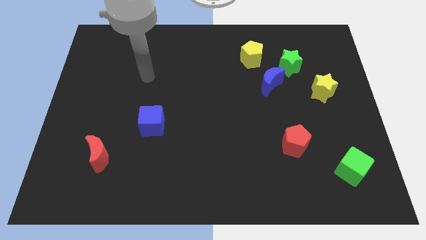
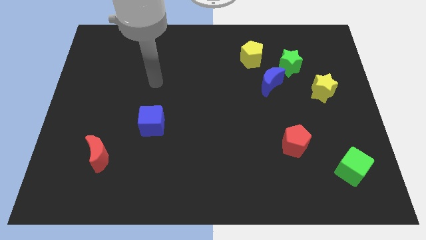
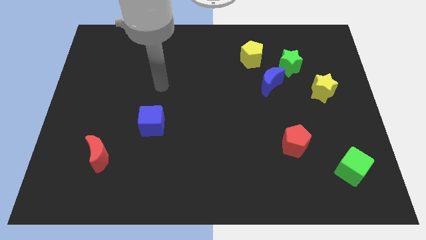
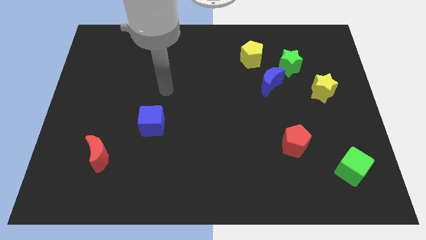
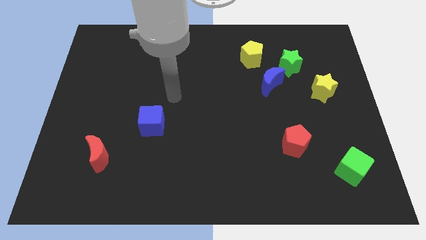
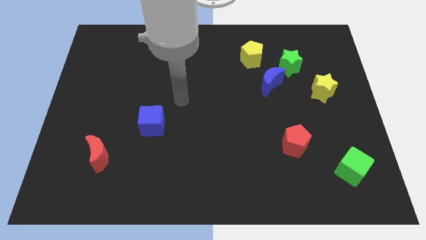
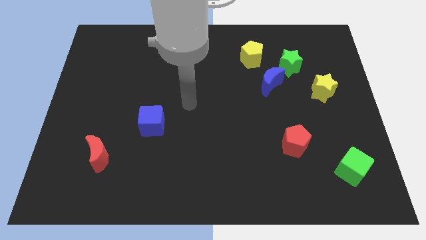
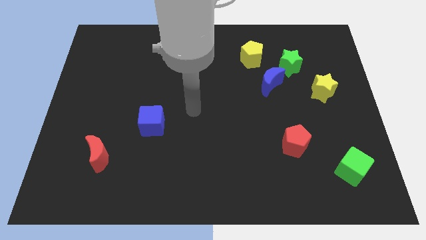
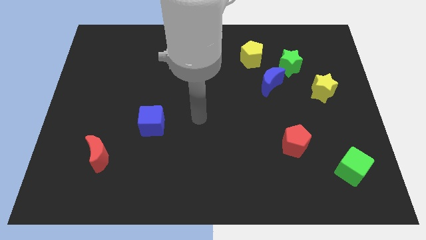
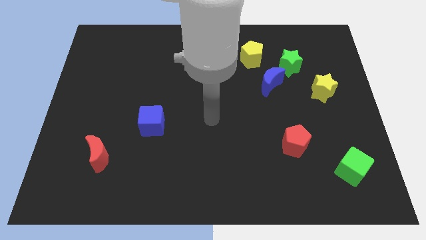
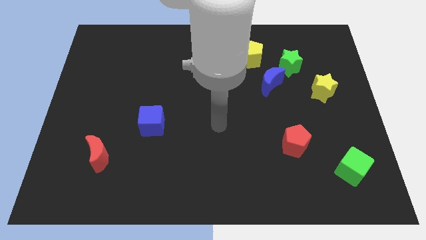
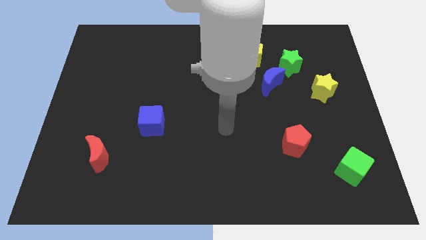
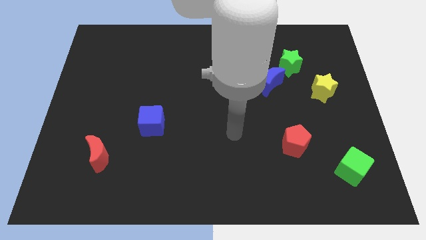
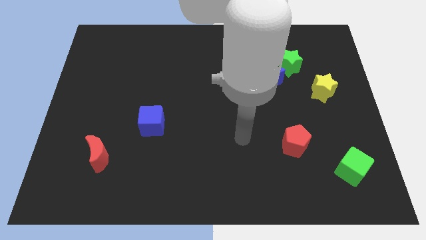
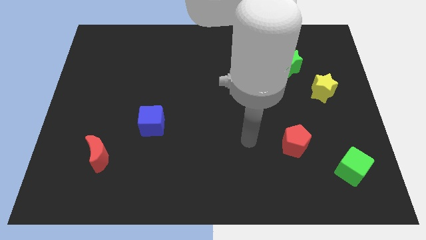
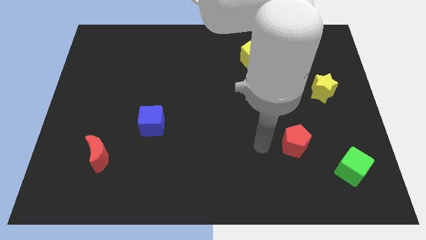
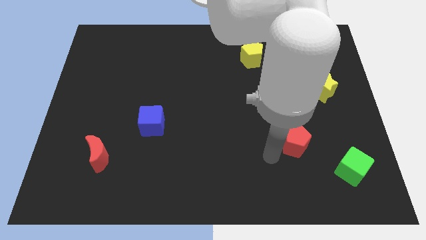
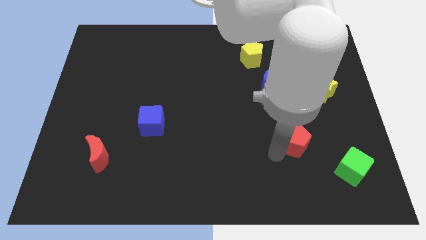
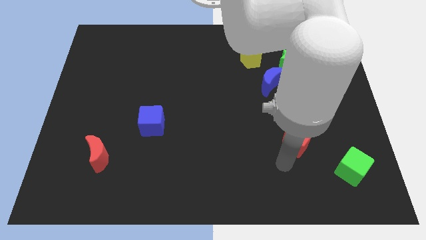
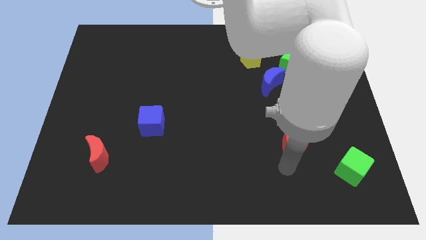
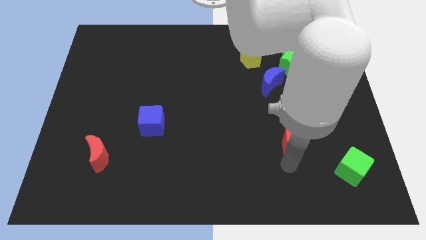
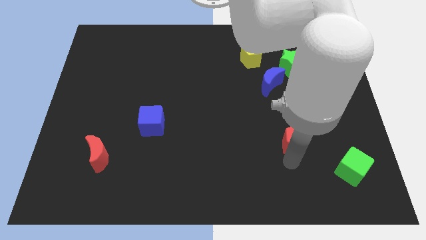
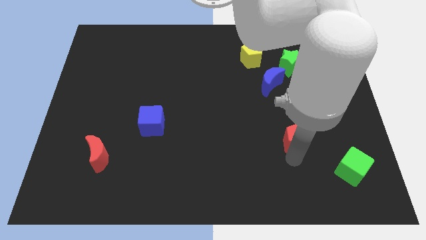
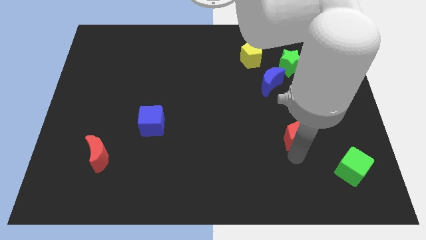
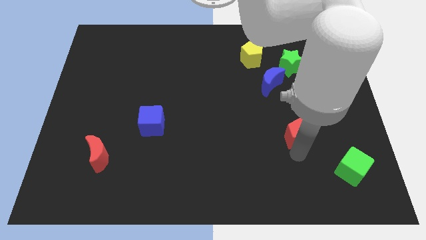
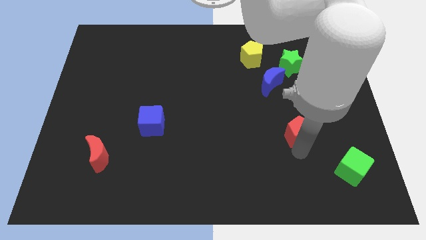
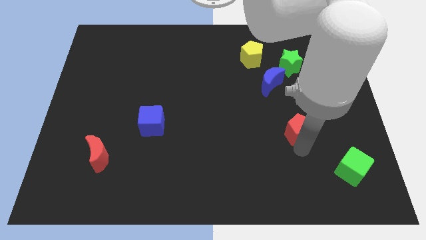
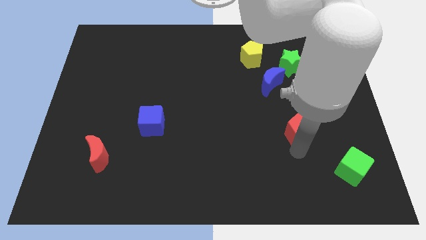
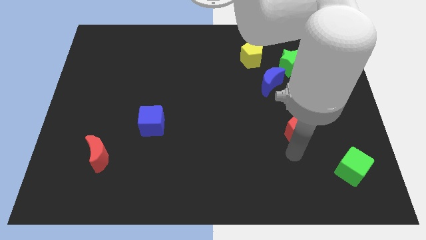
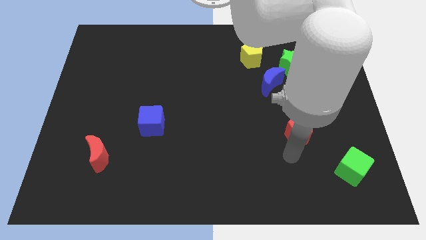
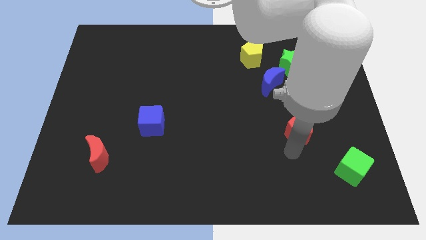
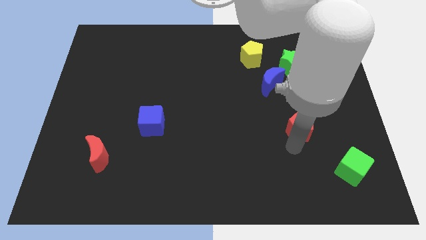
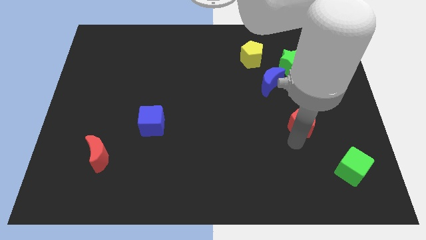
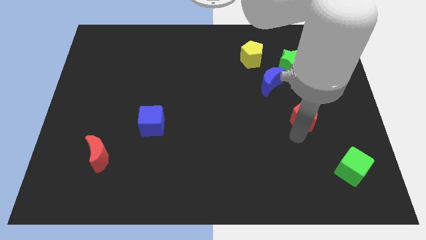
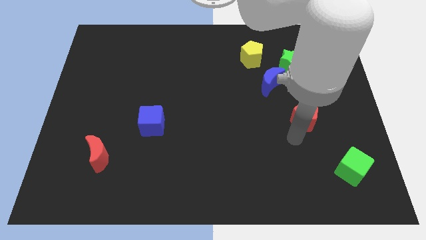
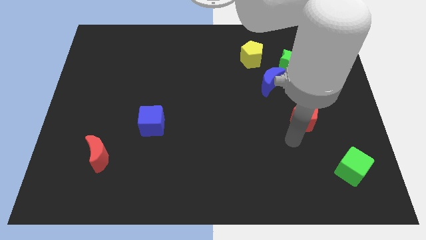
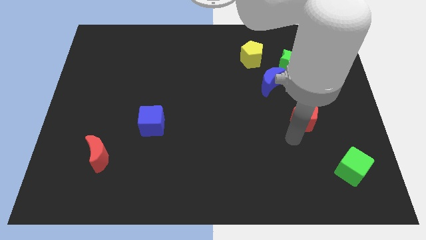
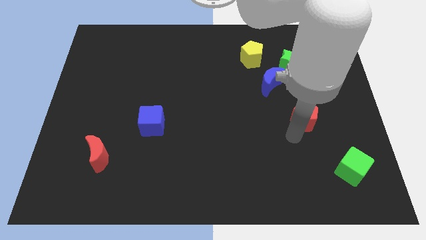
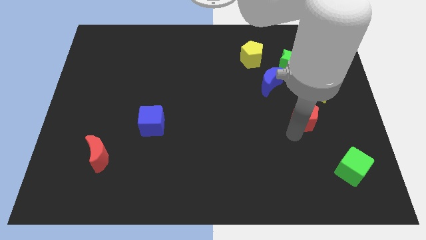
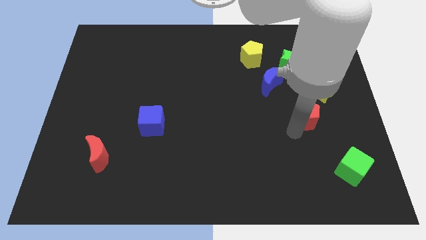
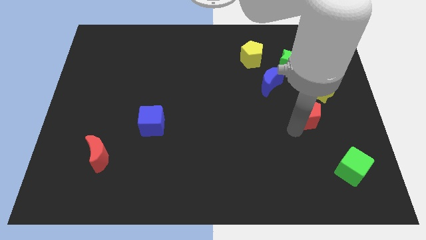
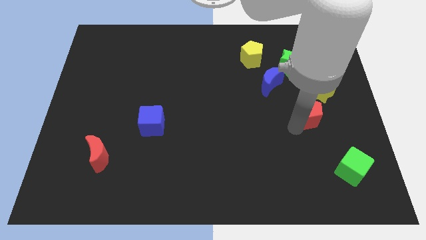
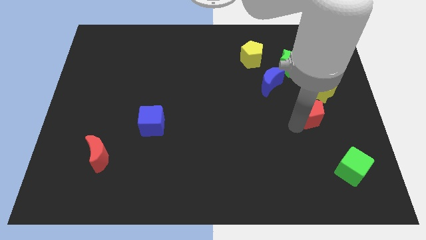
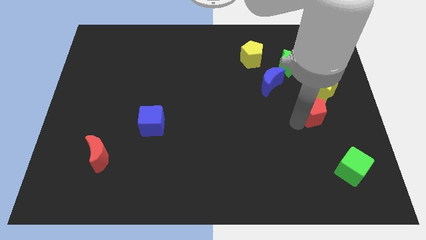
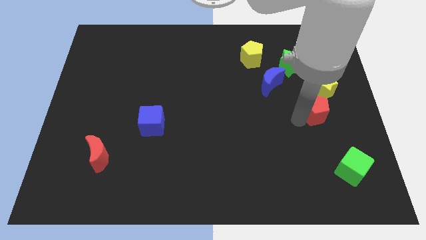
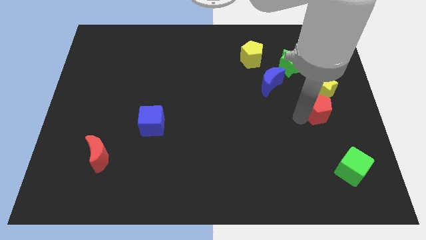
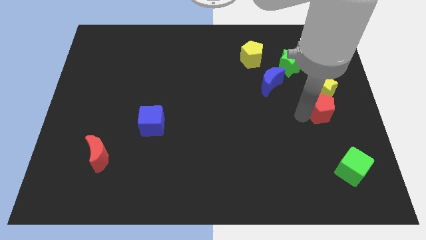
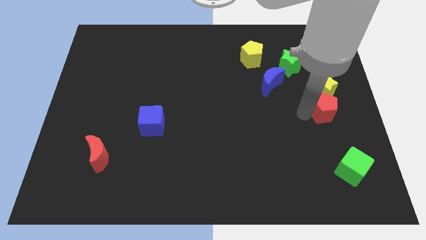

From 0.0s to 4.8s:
slide the red pentagon to the yellow star

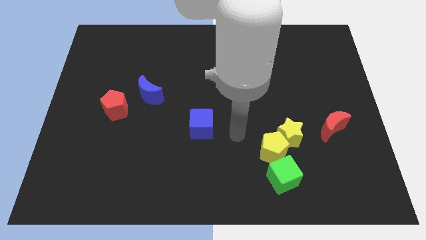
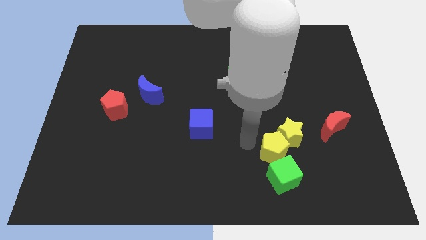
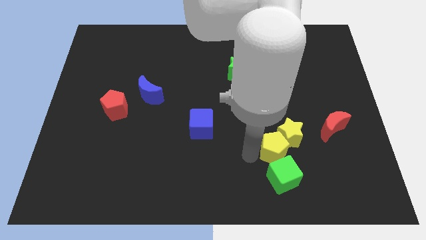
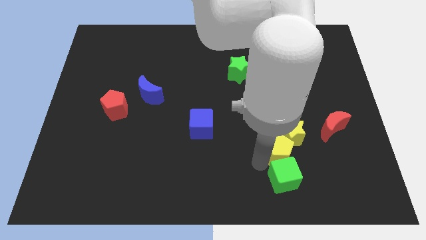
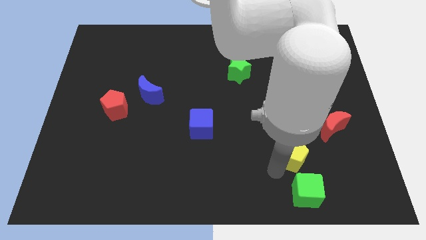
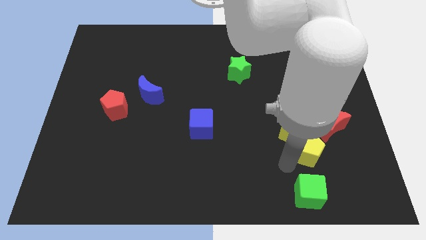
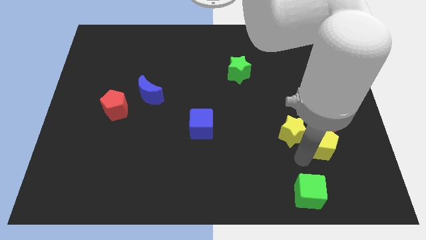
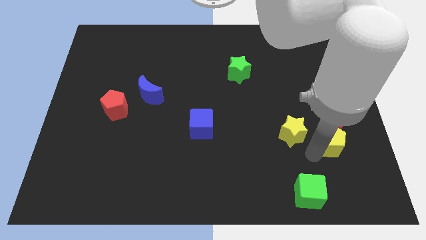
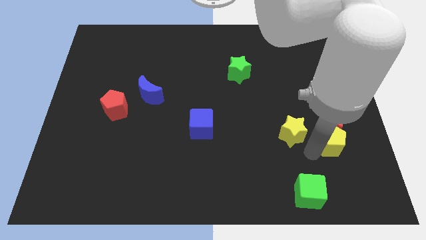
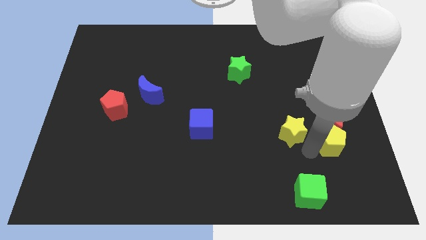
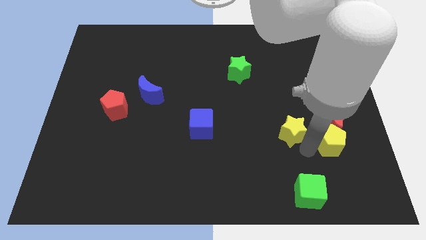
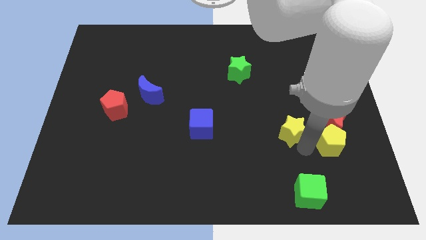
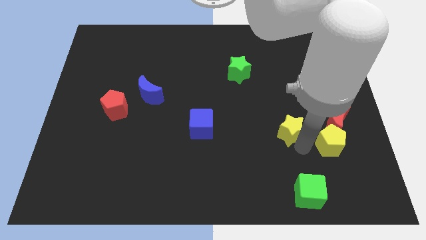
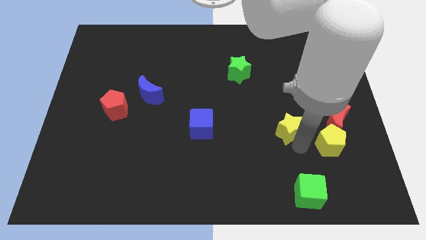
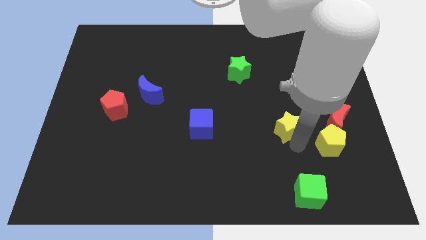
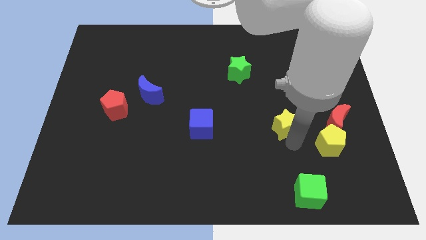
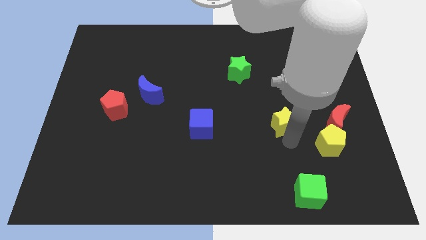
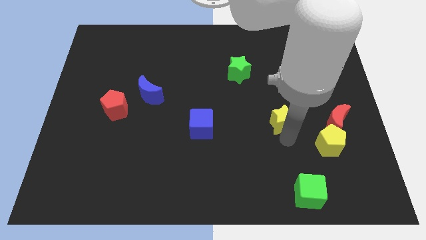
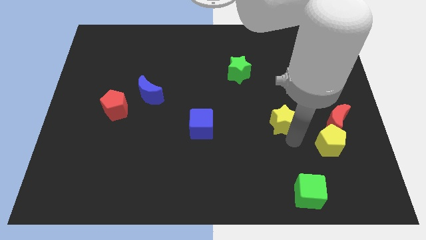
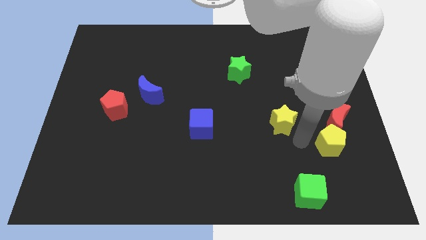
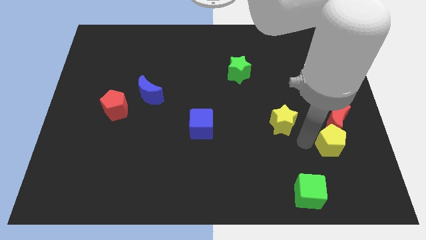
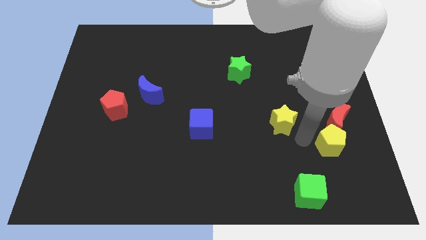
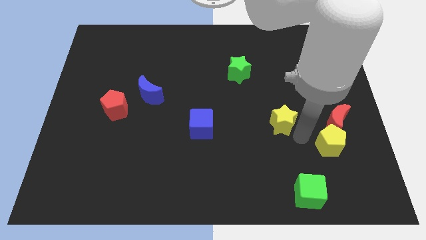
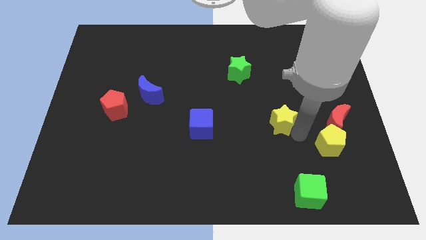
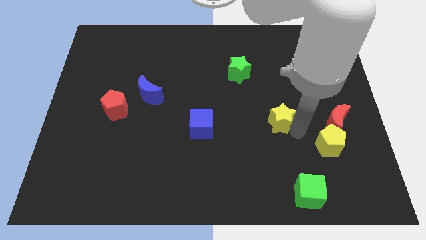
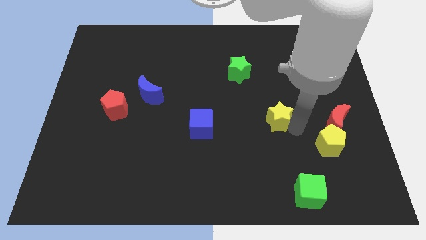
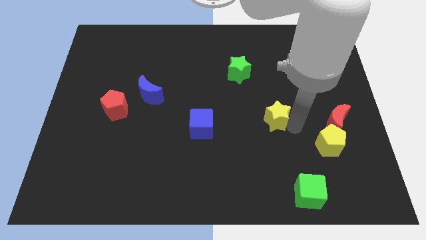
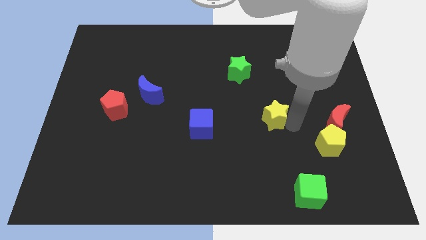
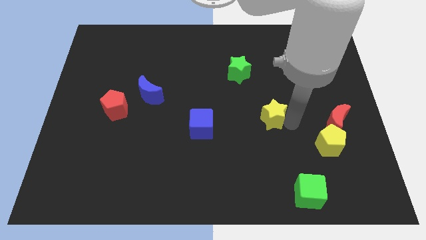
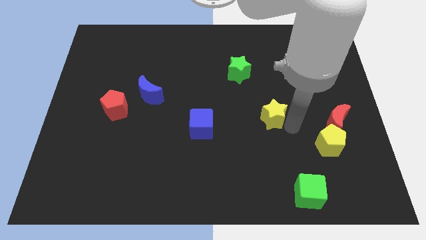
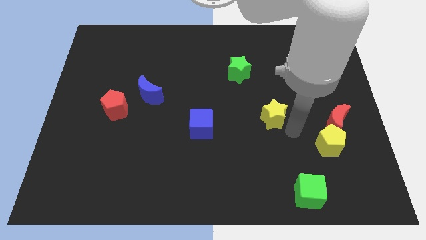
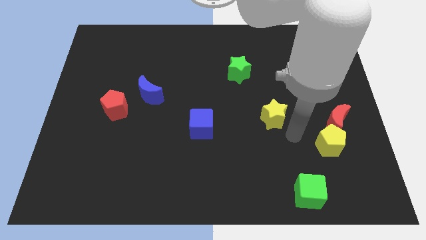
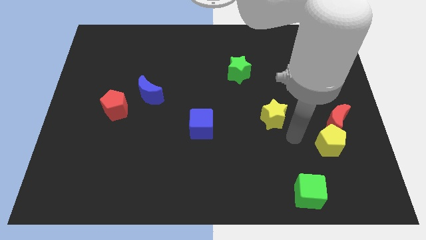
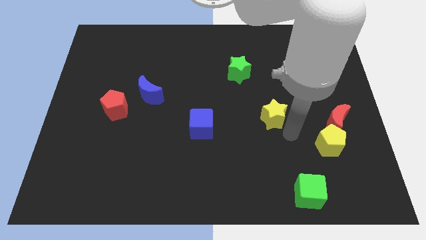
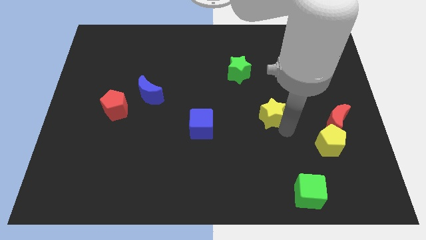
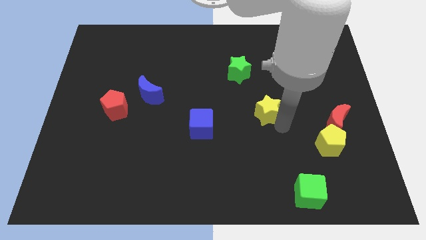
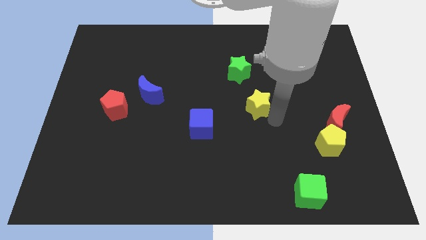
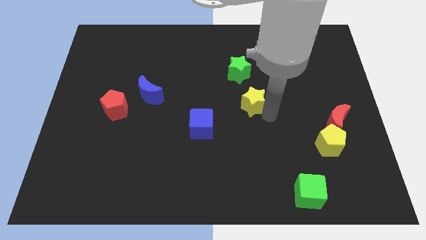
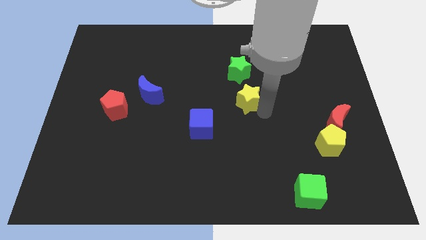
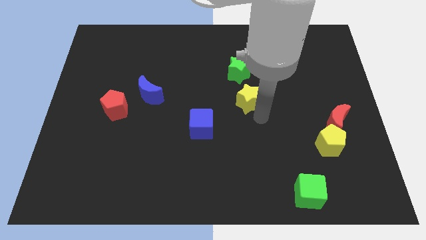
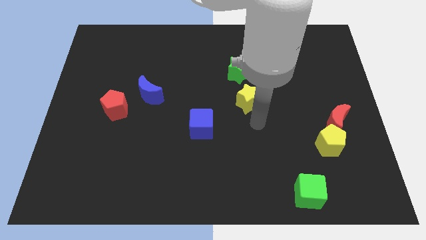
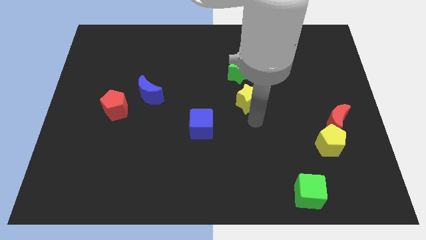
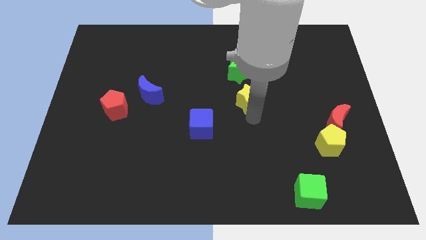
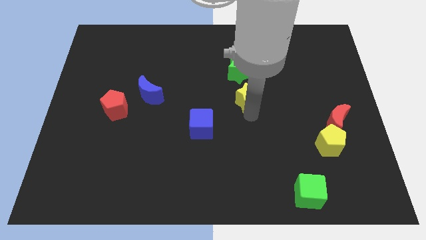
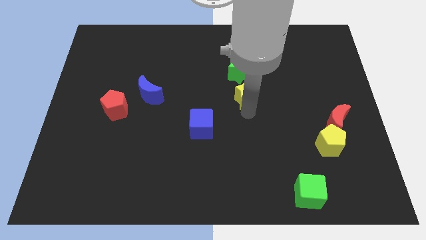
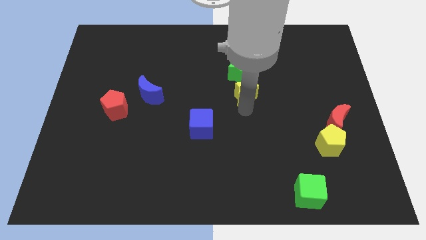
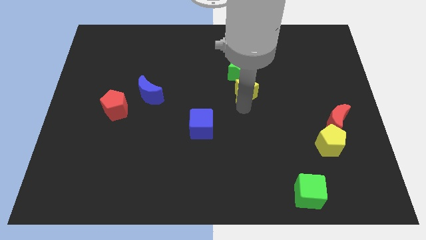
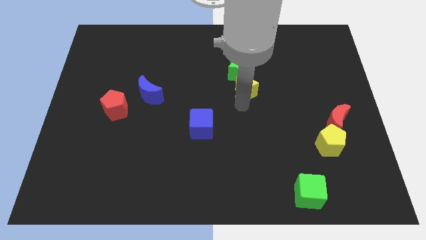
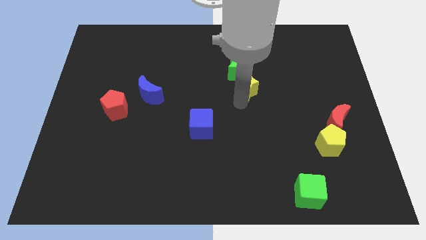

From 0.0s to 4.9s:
put the yellow star next to the green star
